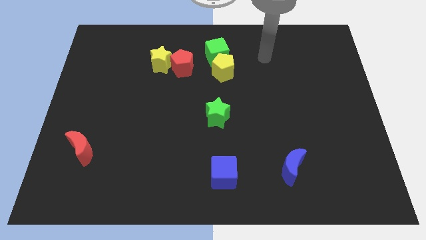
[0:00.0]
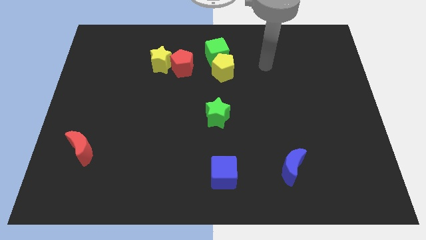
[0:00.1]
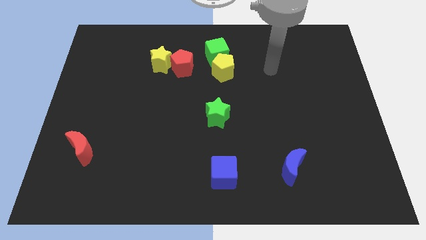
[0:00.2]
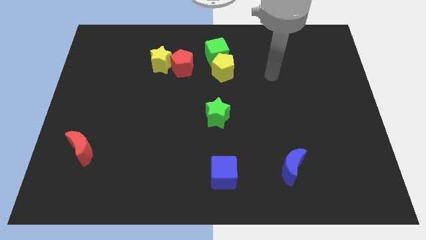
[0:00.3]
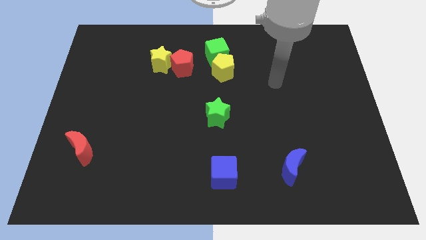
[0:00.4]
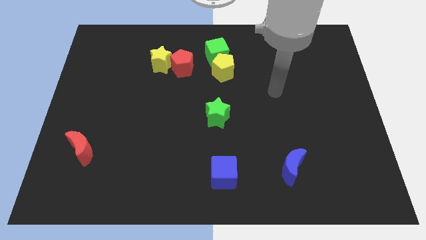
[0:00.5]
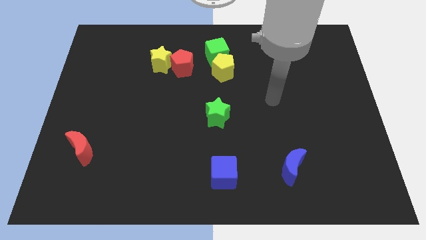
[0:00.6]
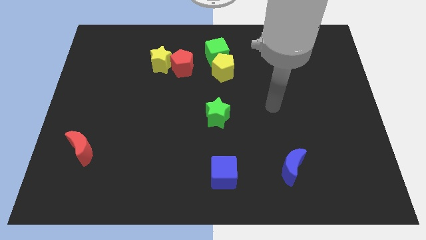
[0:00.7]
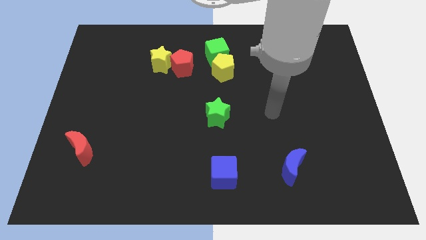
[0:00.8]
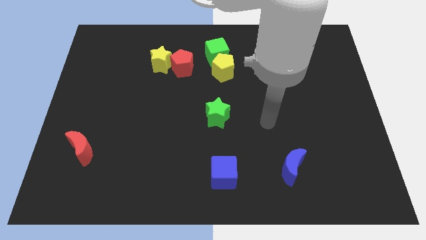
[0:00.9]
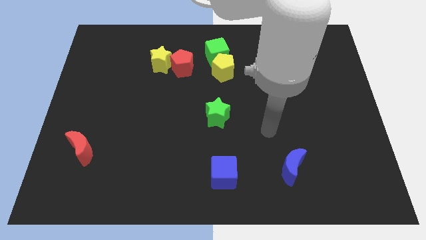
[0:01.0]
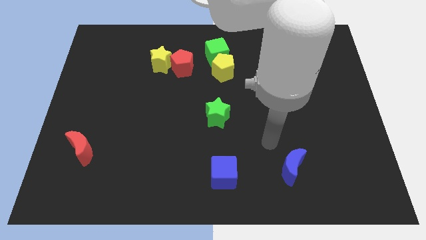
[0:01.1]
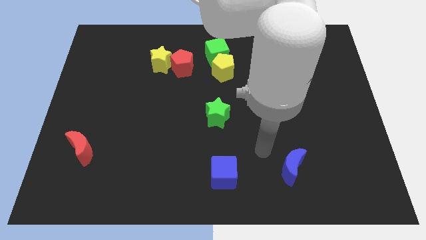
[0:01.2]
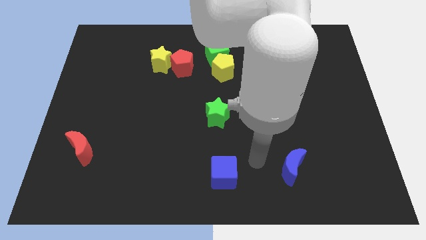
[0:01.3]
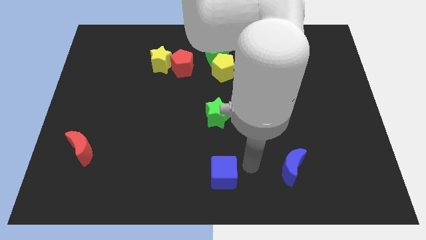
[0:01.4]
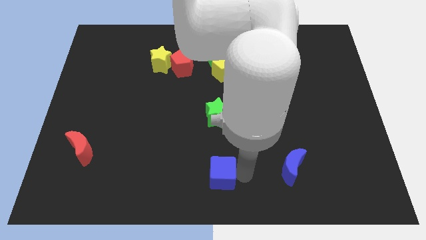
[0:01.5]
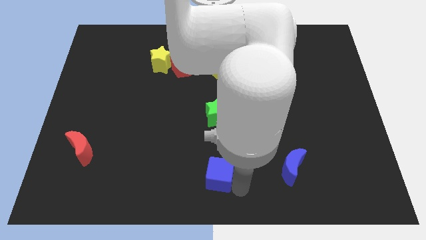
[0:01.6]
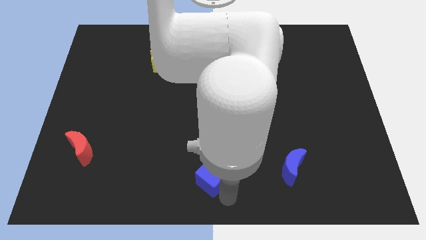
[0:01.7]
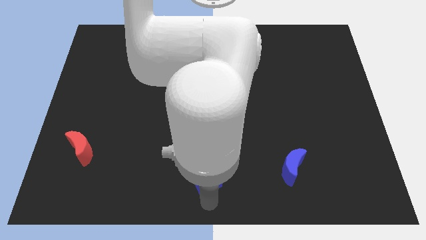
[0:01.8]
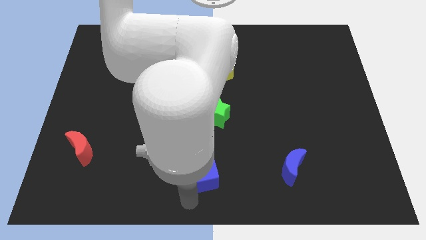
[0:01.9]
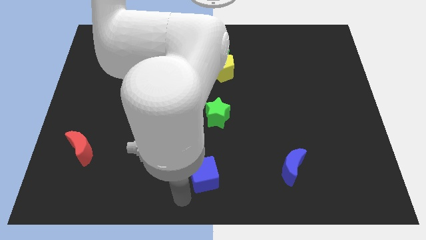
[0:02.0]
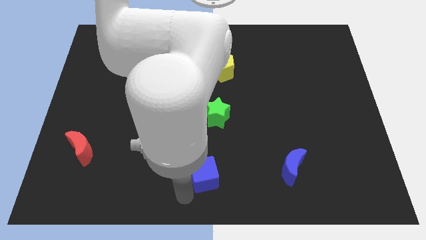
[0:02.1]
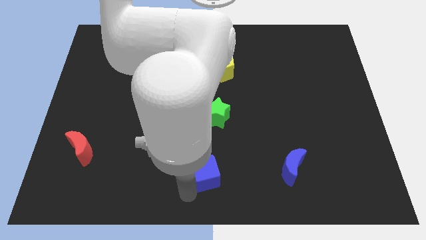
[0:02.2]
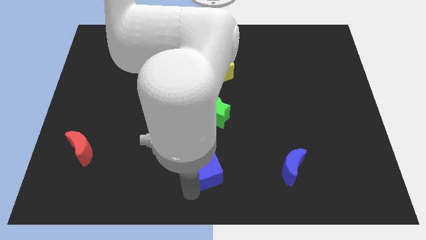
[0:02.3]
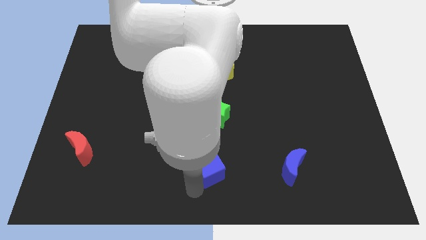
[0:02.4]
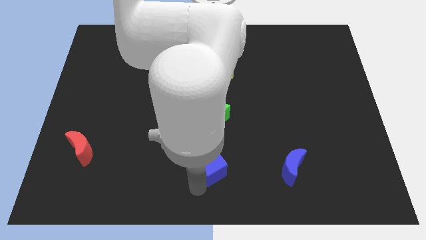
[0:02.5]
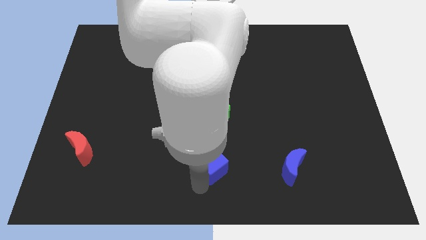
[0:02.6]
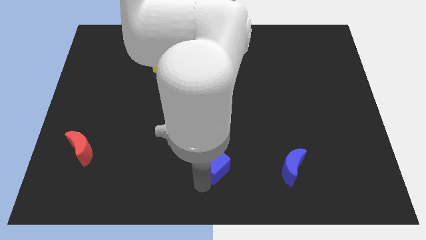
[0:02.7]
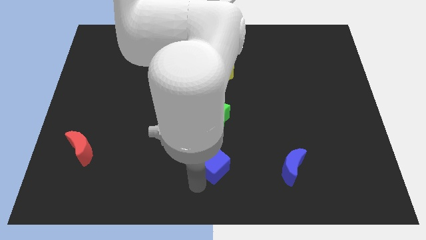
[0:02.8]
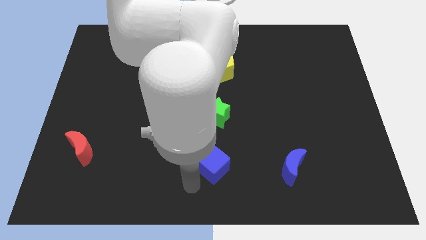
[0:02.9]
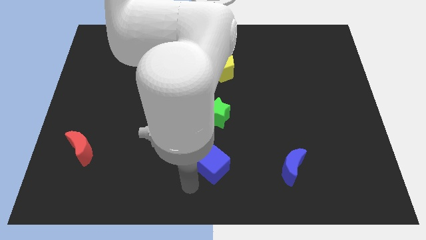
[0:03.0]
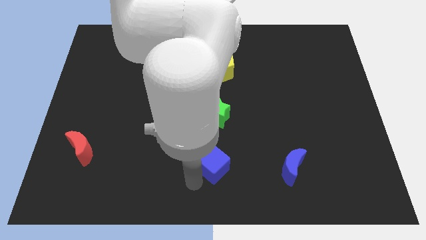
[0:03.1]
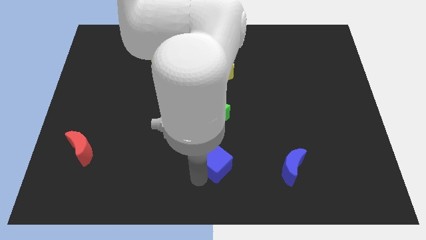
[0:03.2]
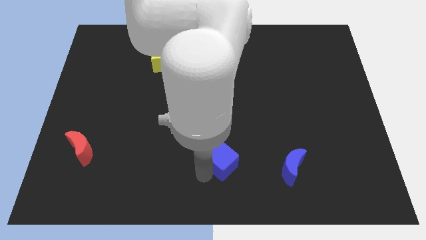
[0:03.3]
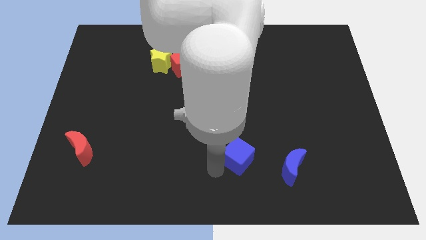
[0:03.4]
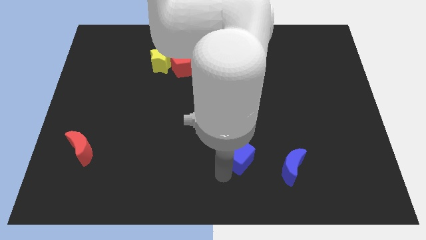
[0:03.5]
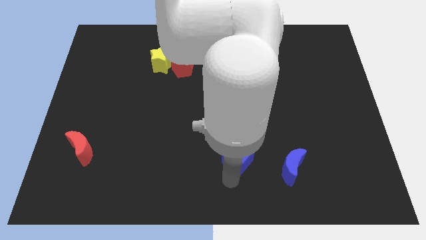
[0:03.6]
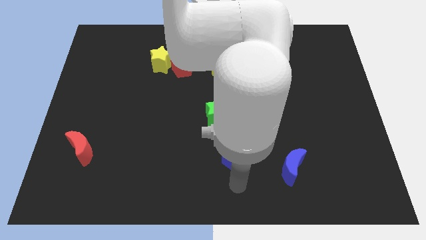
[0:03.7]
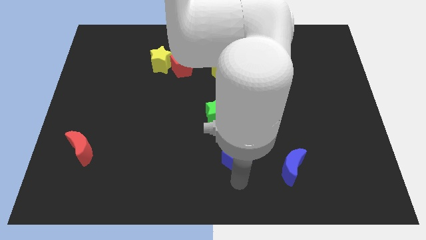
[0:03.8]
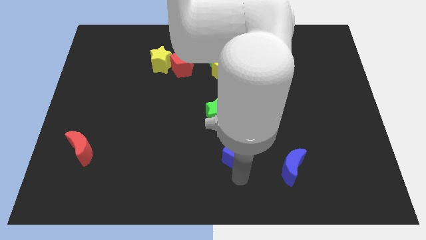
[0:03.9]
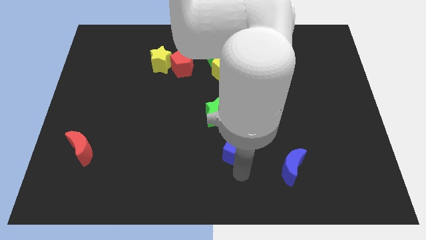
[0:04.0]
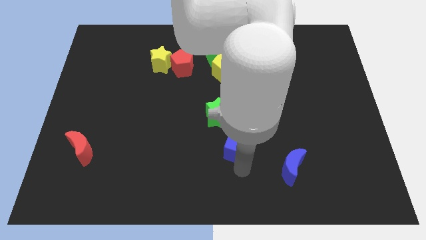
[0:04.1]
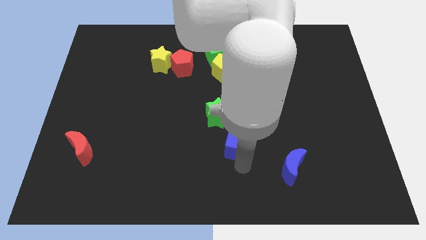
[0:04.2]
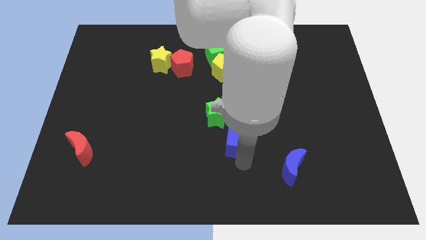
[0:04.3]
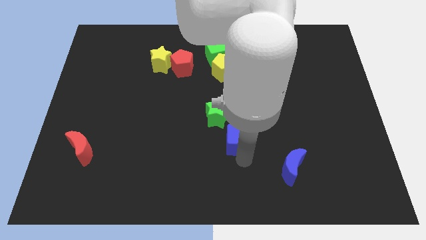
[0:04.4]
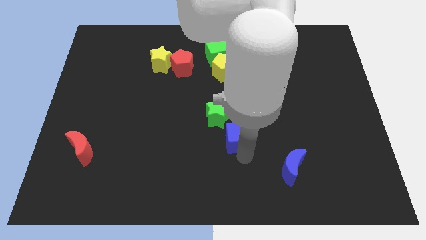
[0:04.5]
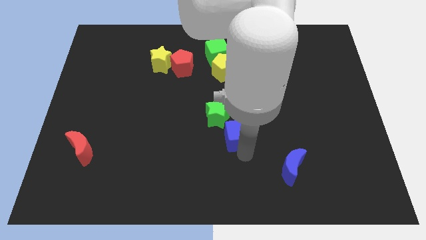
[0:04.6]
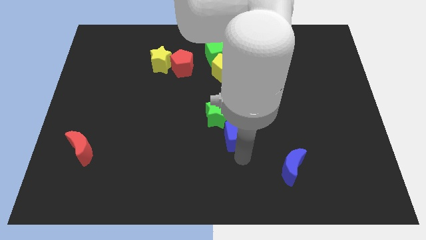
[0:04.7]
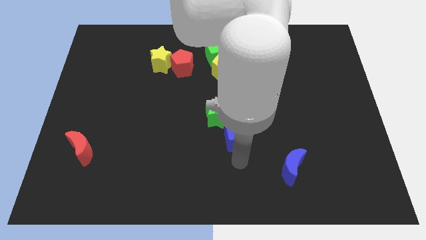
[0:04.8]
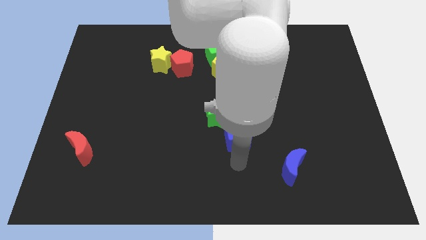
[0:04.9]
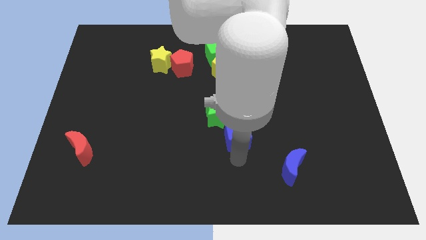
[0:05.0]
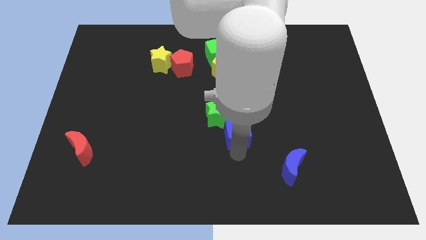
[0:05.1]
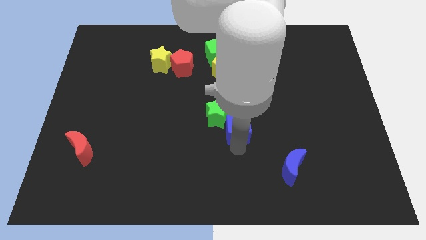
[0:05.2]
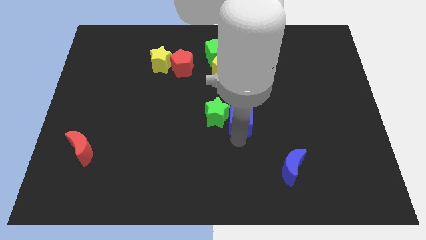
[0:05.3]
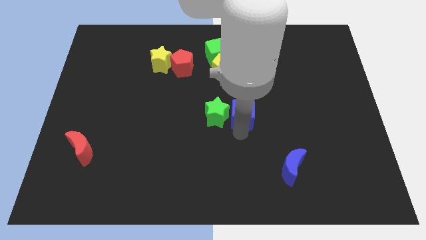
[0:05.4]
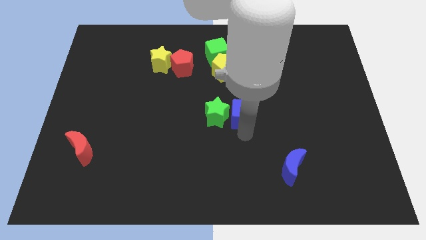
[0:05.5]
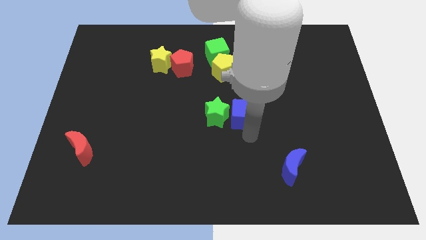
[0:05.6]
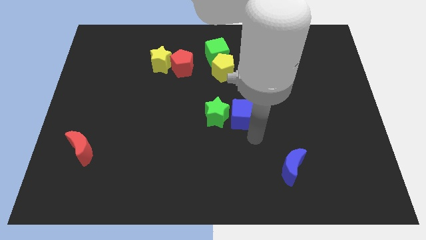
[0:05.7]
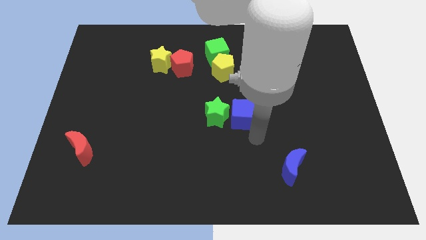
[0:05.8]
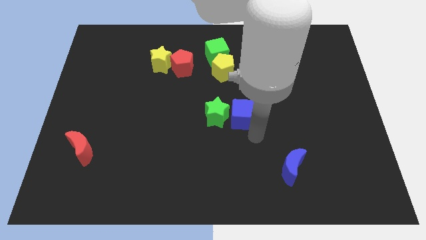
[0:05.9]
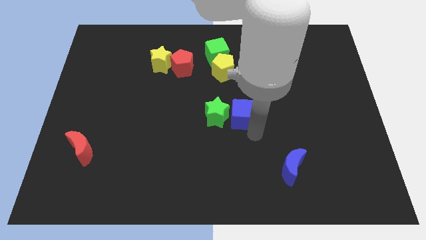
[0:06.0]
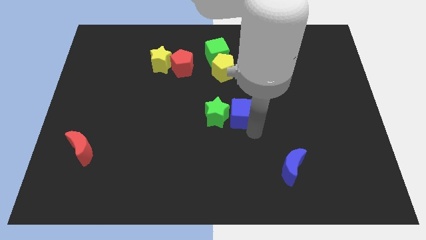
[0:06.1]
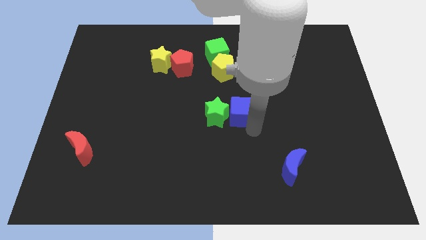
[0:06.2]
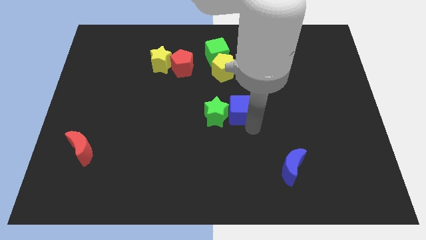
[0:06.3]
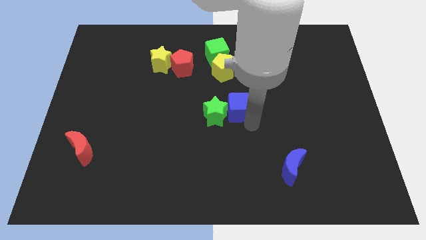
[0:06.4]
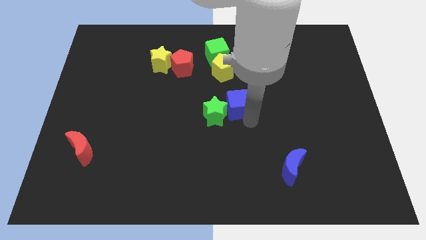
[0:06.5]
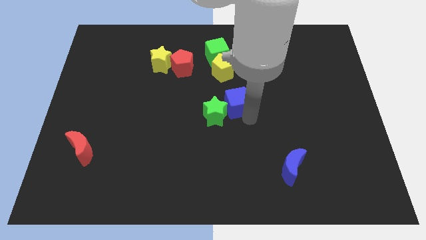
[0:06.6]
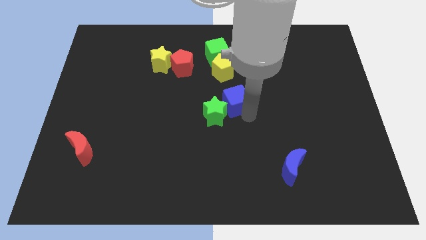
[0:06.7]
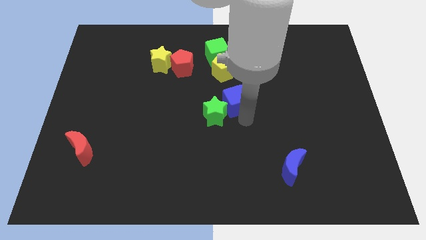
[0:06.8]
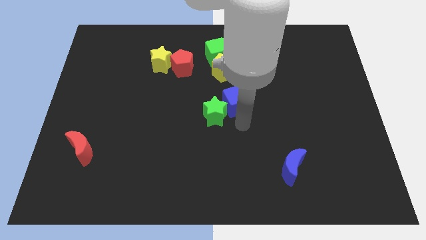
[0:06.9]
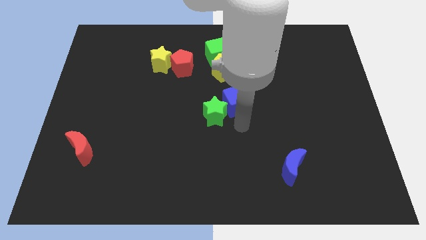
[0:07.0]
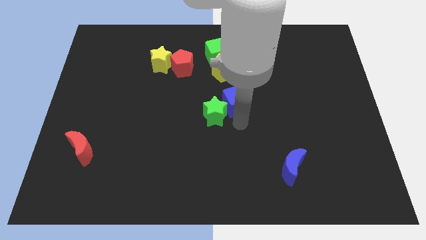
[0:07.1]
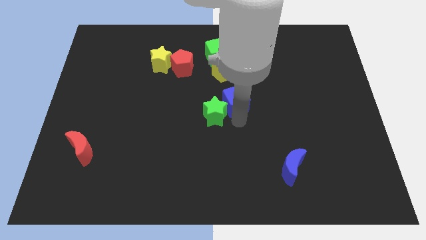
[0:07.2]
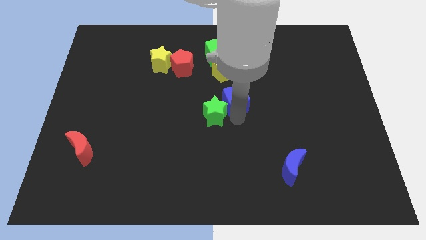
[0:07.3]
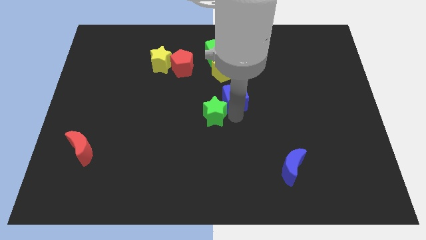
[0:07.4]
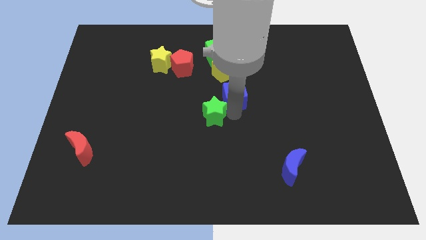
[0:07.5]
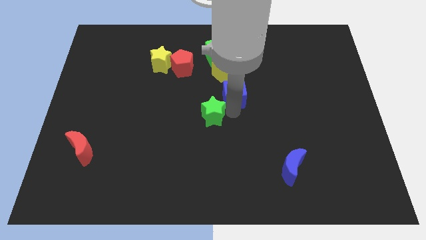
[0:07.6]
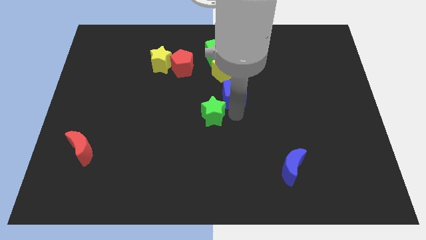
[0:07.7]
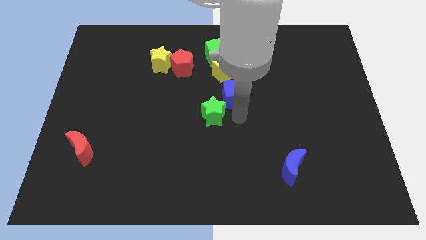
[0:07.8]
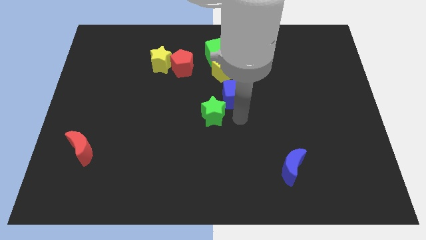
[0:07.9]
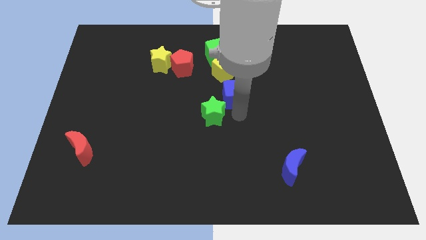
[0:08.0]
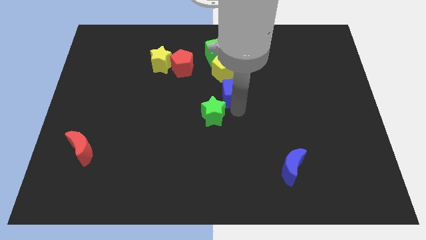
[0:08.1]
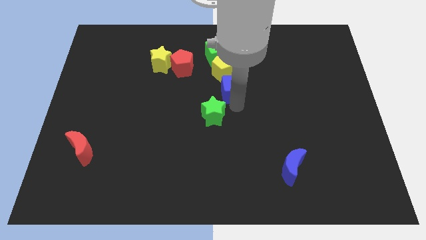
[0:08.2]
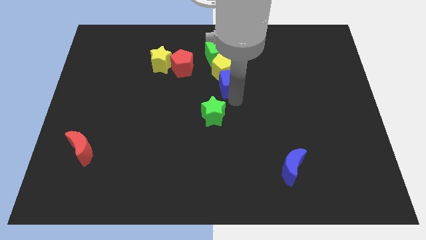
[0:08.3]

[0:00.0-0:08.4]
push the blue cube to the yellow pentagon
